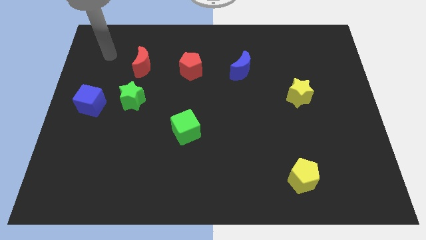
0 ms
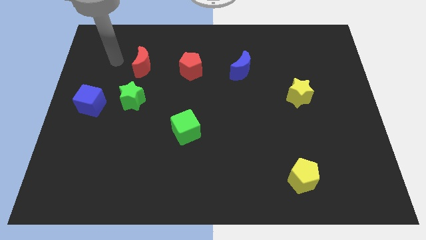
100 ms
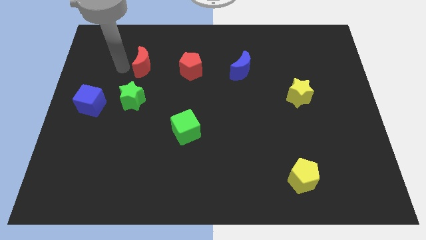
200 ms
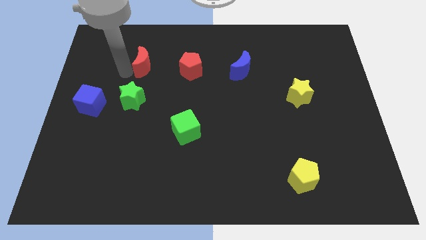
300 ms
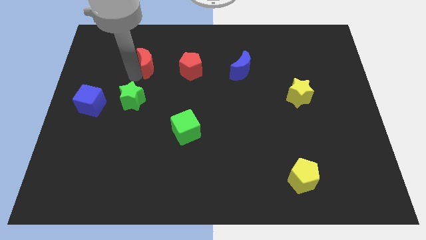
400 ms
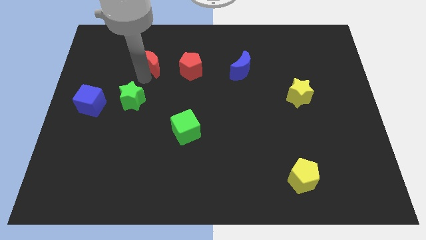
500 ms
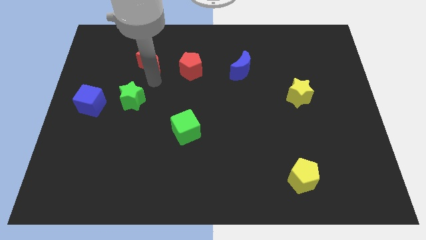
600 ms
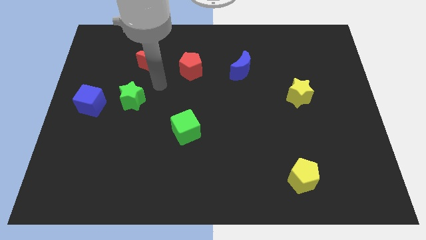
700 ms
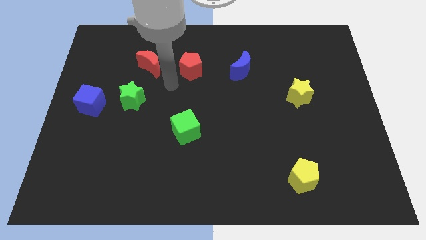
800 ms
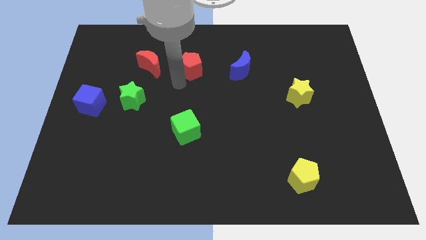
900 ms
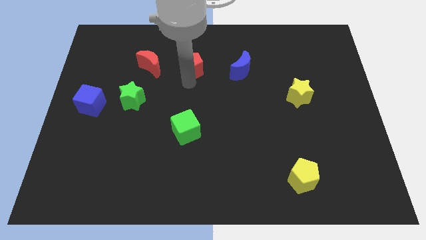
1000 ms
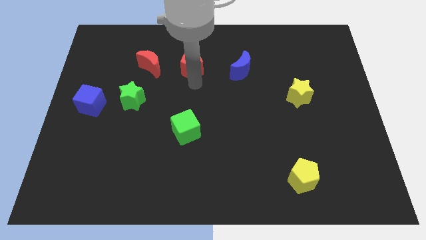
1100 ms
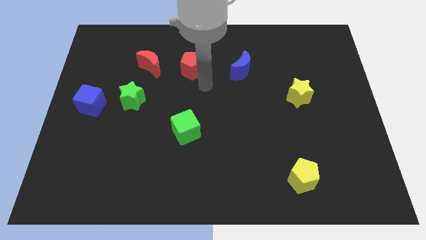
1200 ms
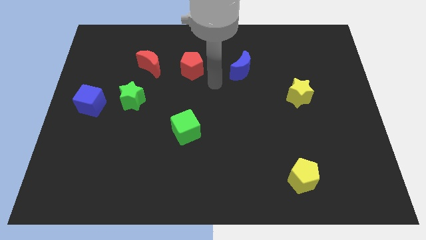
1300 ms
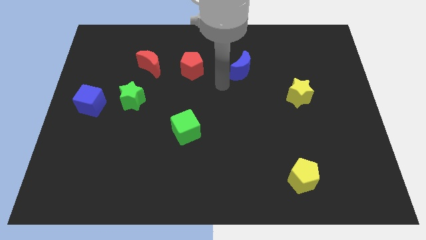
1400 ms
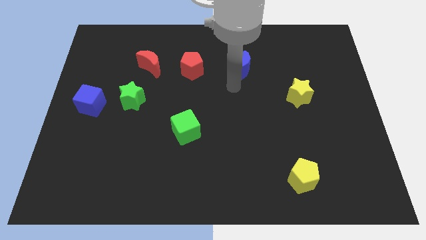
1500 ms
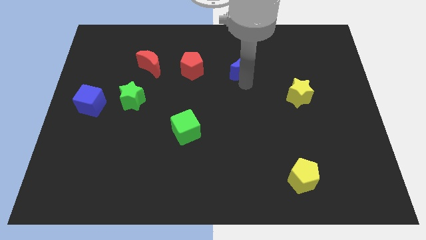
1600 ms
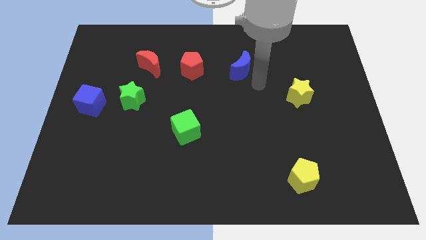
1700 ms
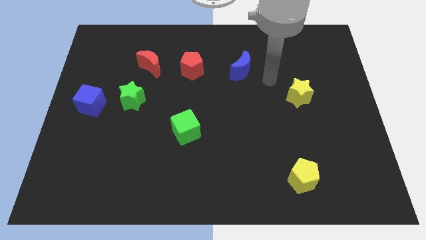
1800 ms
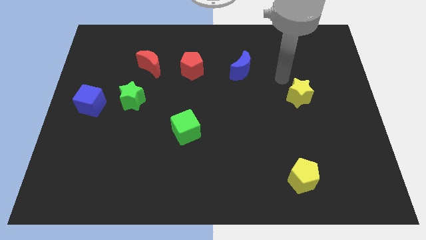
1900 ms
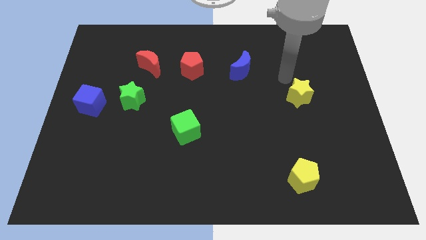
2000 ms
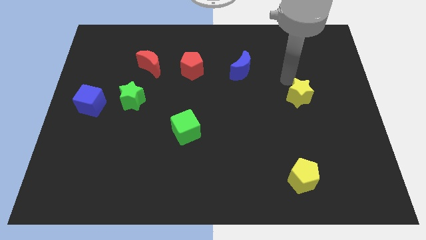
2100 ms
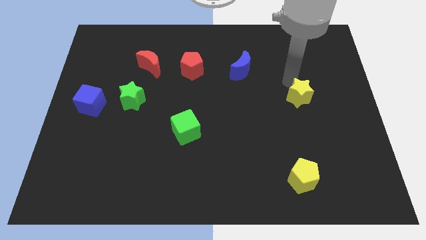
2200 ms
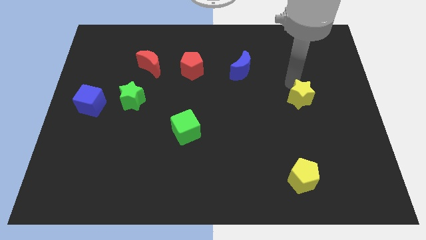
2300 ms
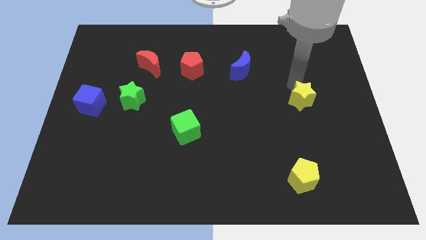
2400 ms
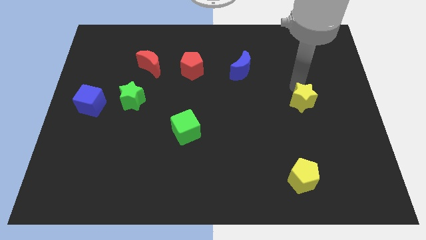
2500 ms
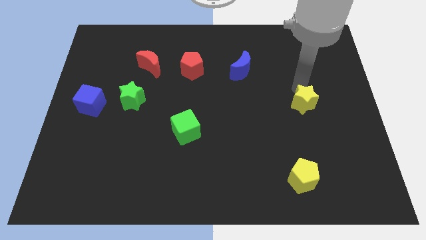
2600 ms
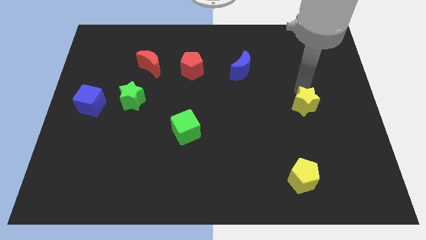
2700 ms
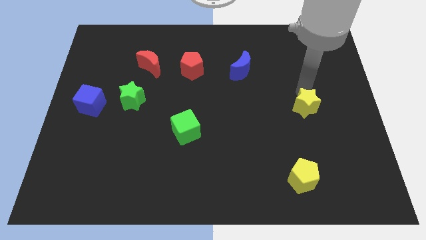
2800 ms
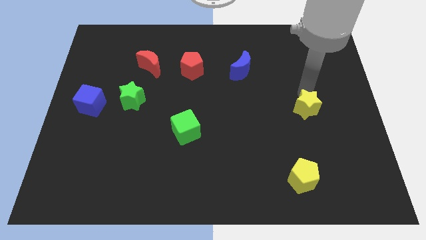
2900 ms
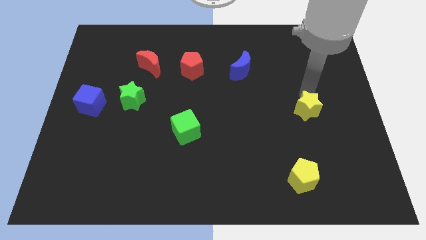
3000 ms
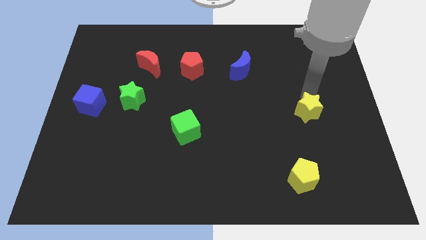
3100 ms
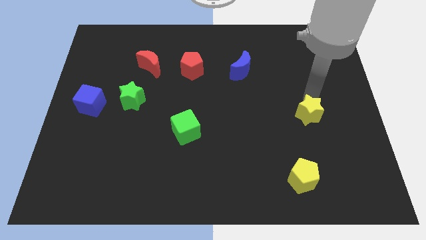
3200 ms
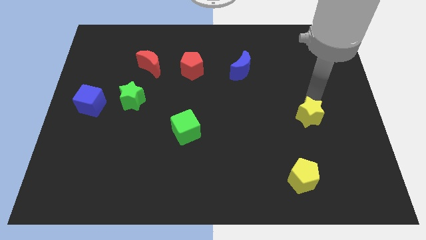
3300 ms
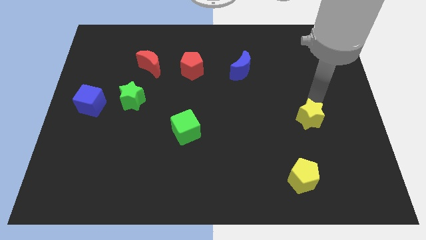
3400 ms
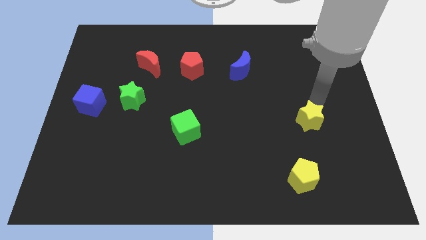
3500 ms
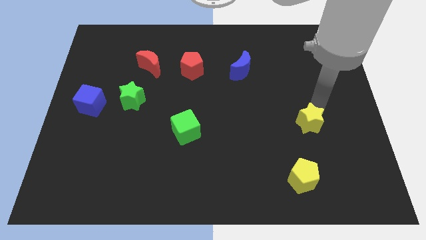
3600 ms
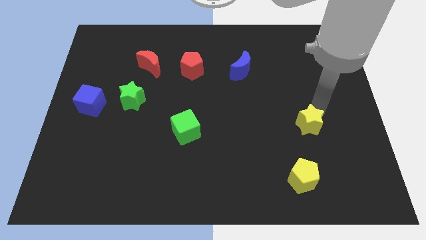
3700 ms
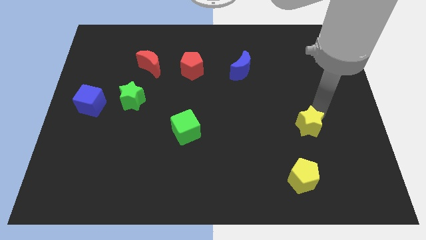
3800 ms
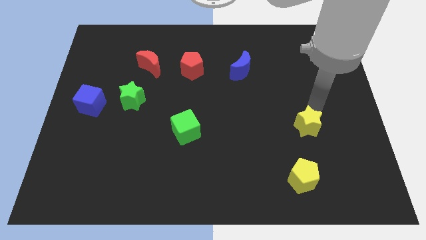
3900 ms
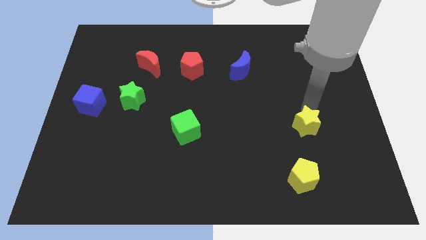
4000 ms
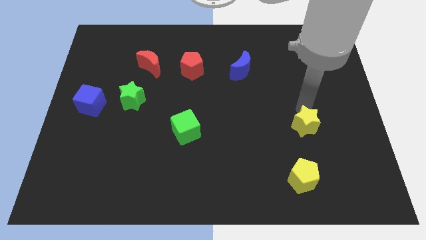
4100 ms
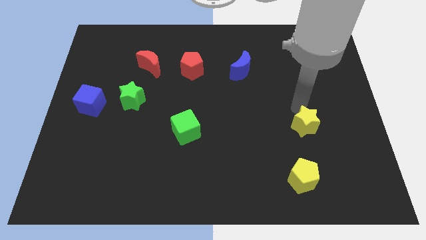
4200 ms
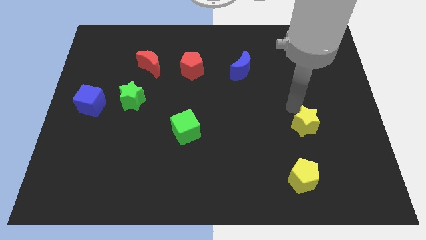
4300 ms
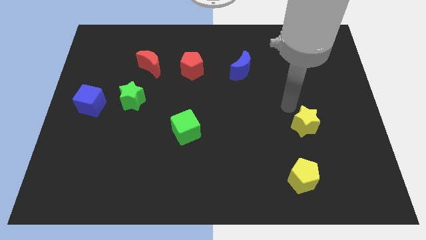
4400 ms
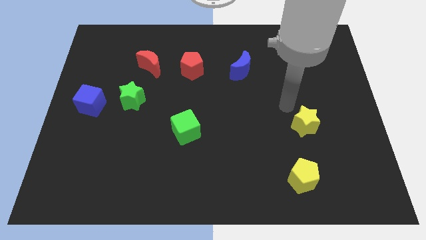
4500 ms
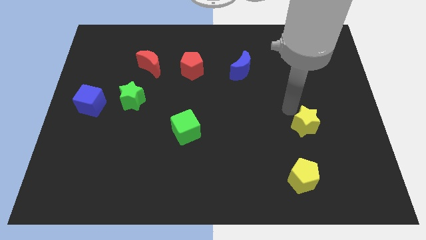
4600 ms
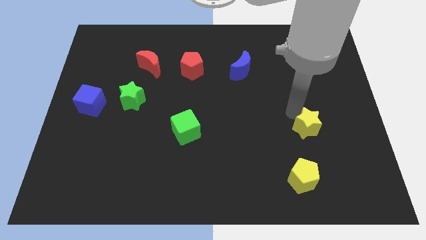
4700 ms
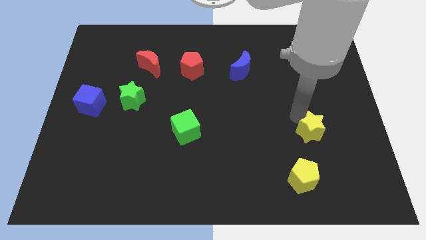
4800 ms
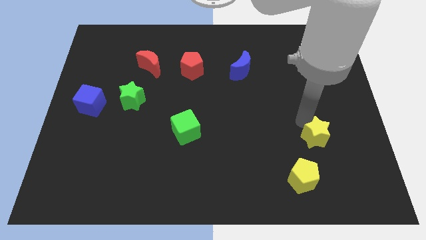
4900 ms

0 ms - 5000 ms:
put the yellow star diagonally up and to the right of the yellow pentagon

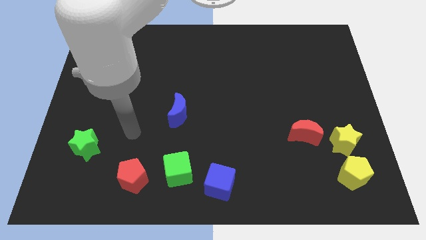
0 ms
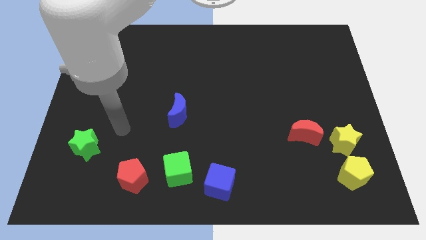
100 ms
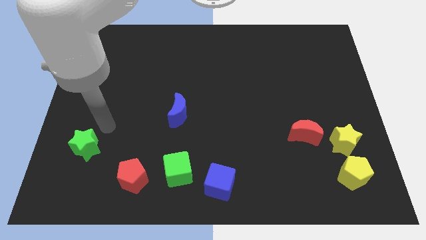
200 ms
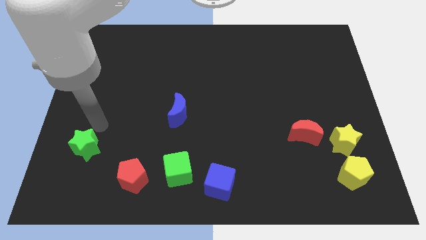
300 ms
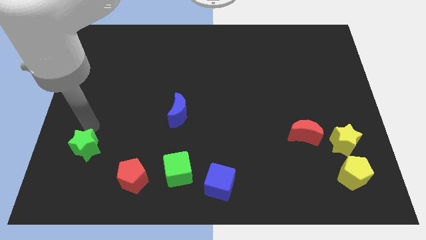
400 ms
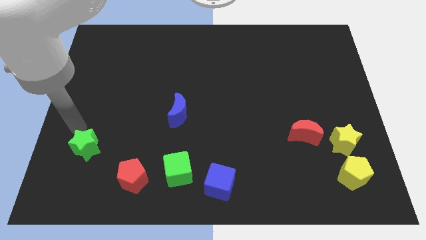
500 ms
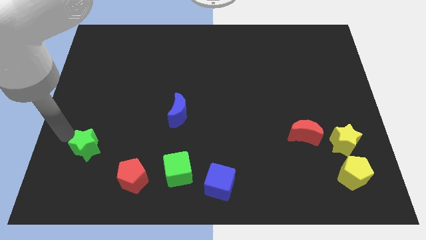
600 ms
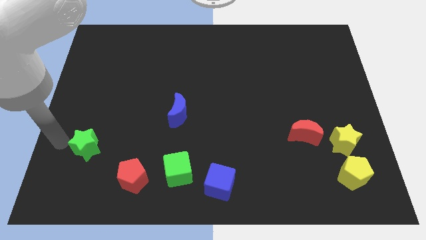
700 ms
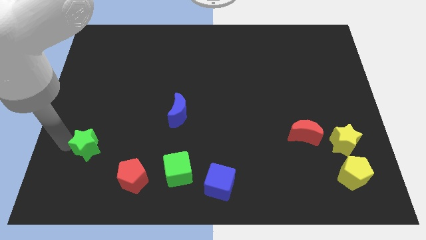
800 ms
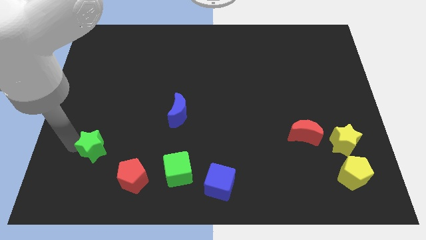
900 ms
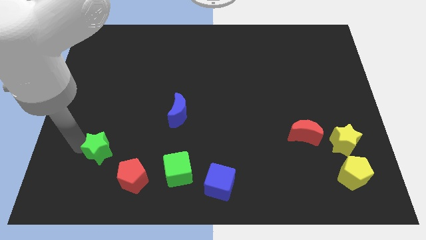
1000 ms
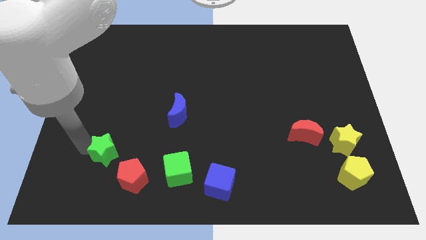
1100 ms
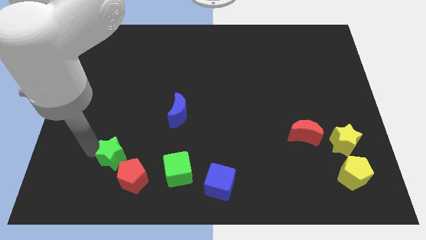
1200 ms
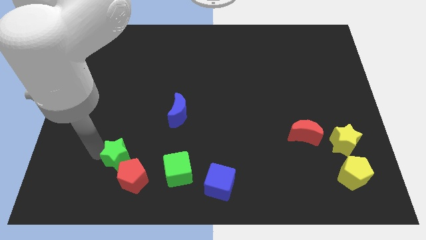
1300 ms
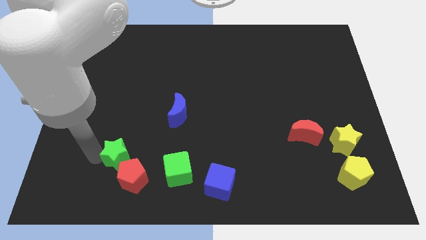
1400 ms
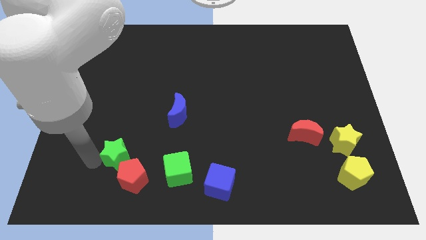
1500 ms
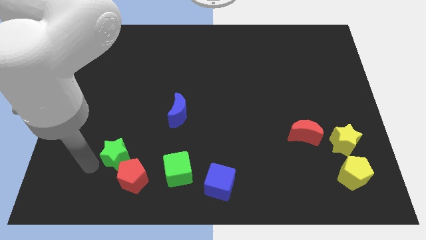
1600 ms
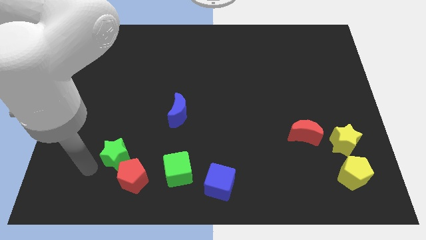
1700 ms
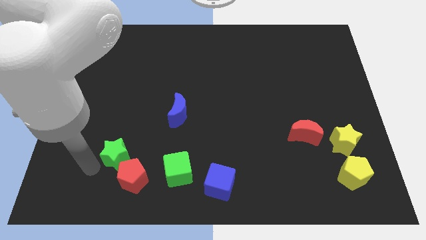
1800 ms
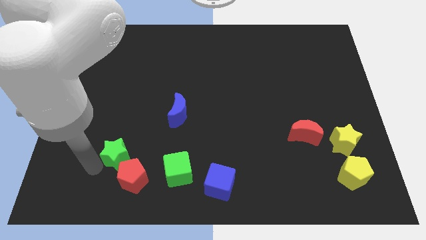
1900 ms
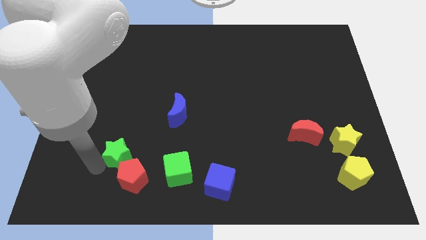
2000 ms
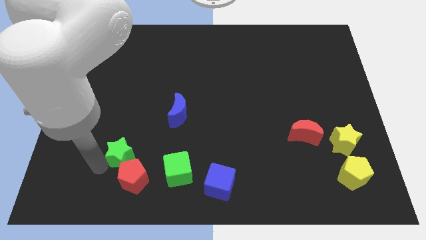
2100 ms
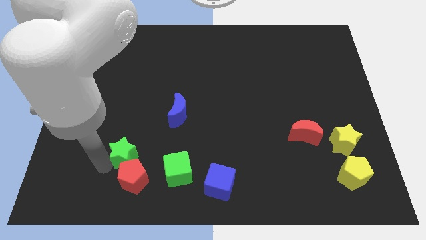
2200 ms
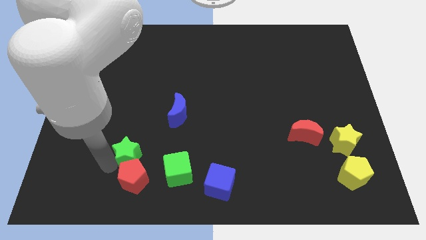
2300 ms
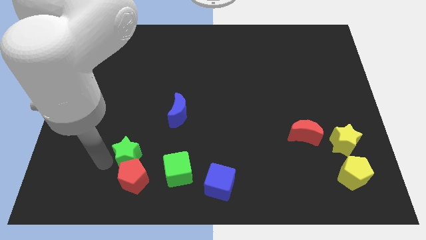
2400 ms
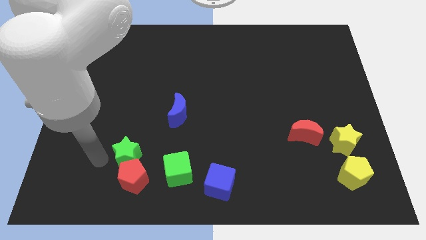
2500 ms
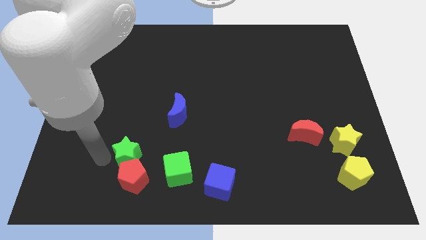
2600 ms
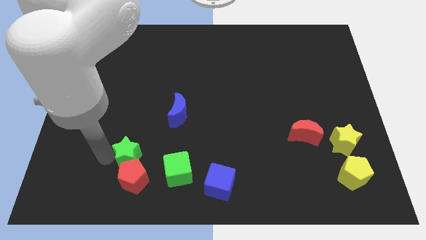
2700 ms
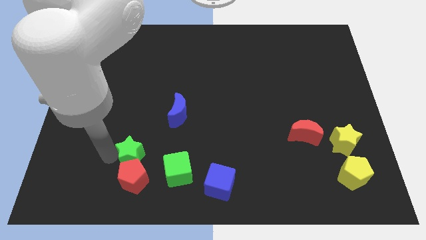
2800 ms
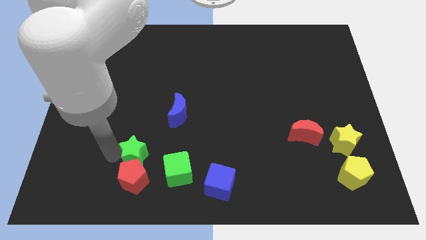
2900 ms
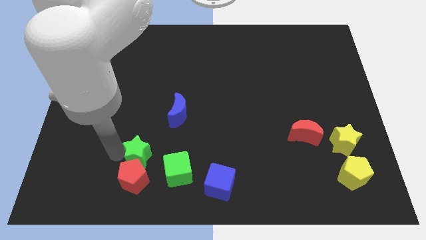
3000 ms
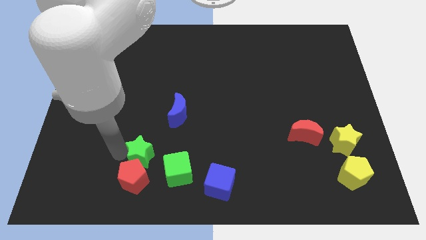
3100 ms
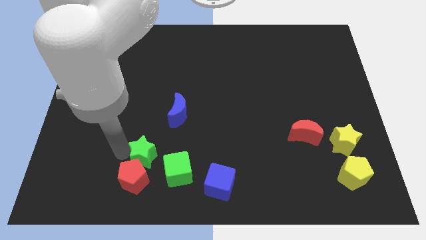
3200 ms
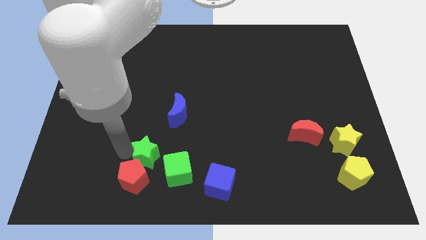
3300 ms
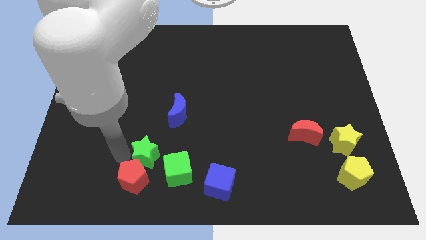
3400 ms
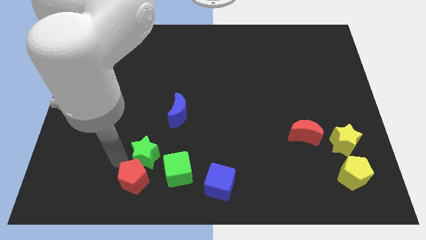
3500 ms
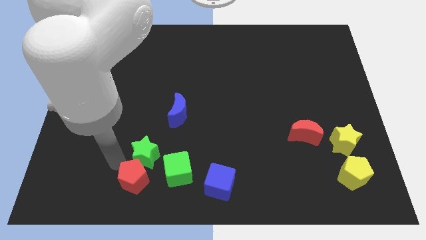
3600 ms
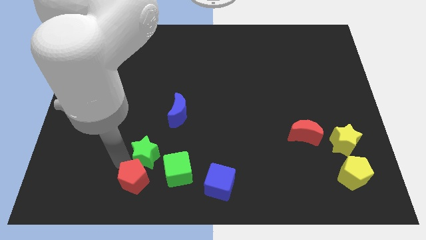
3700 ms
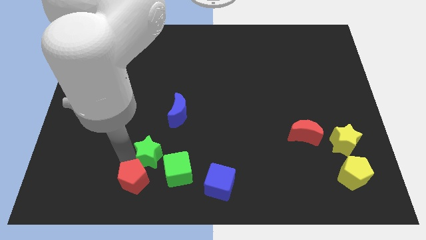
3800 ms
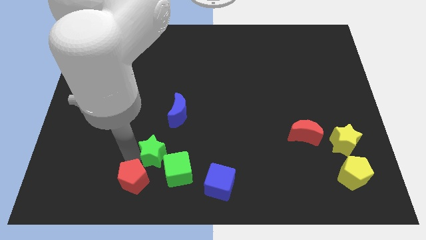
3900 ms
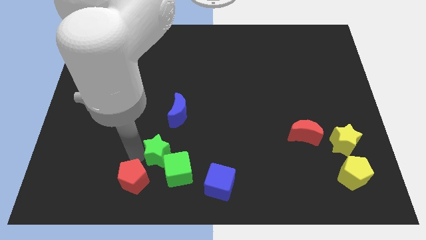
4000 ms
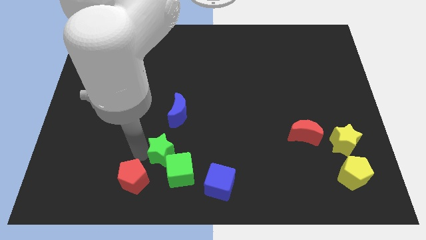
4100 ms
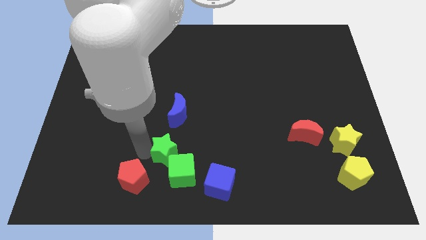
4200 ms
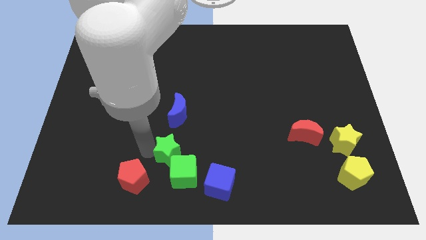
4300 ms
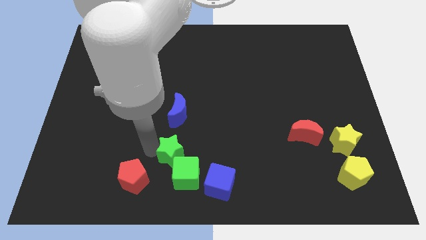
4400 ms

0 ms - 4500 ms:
push the green star to the top left side of the blue cube
